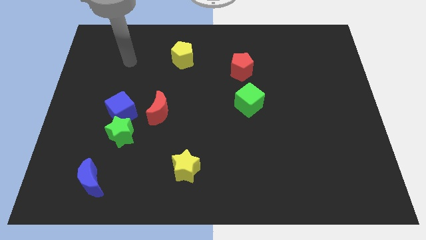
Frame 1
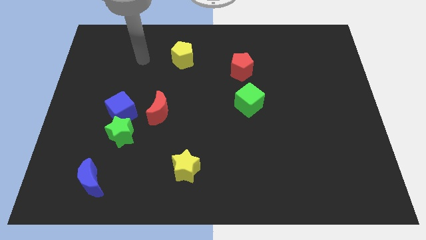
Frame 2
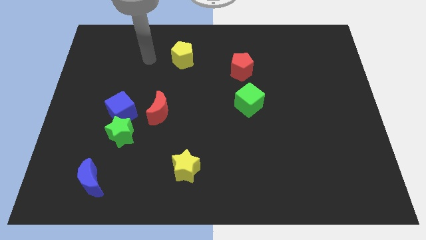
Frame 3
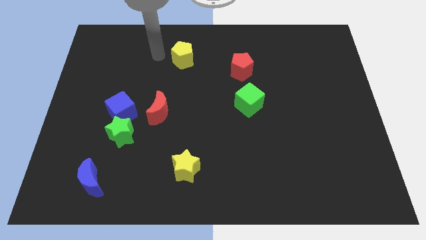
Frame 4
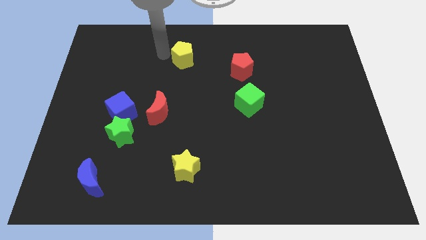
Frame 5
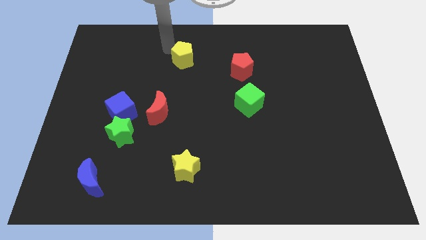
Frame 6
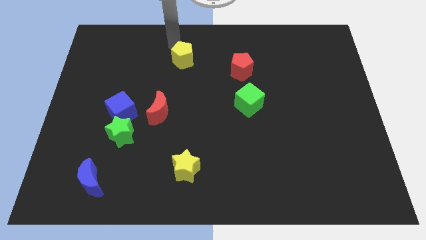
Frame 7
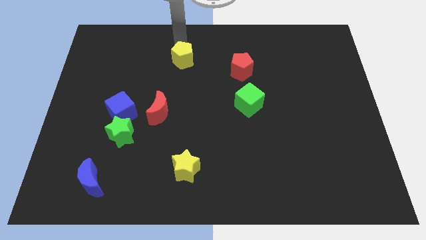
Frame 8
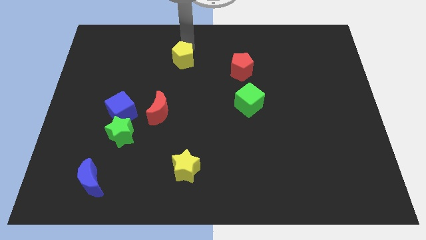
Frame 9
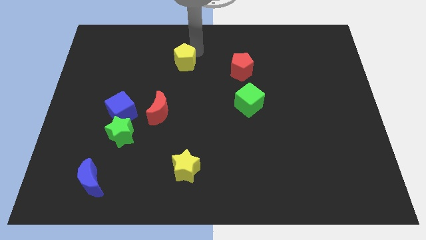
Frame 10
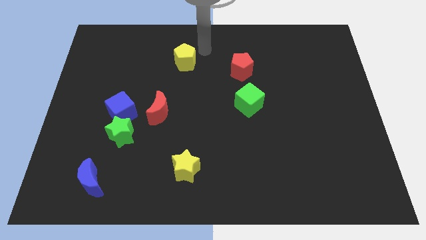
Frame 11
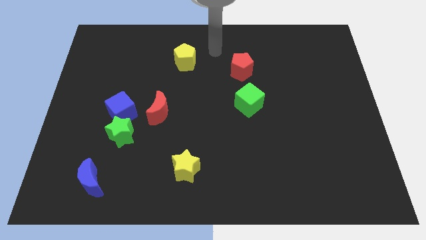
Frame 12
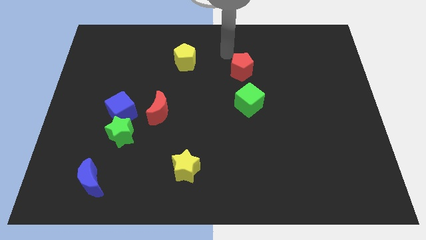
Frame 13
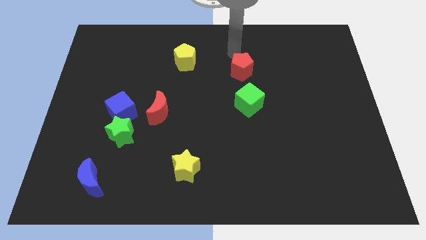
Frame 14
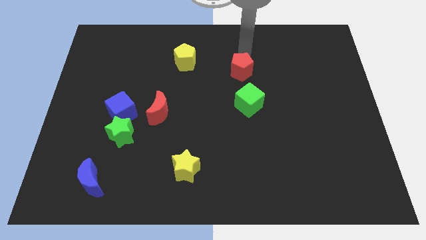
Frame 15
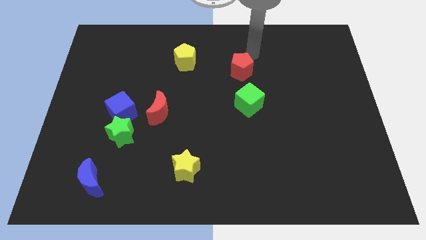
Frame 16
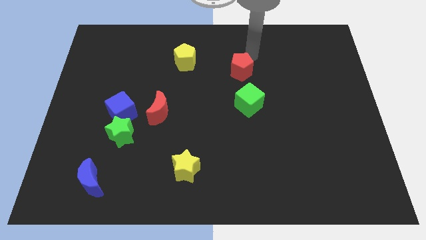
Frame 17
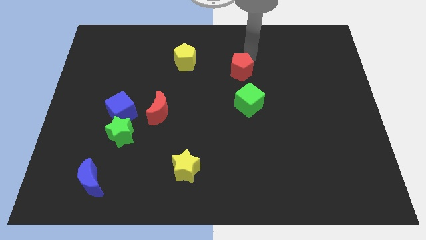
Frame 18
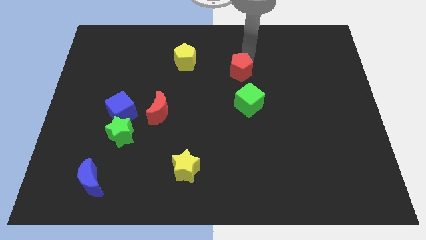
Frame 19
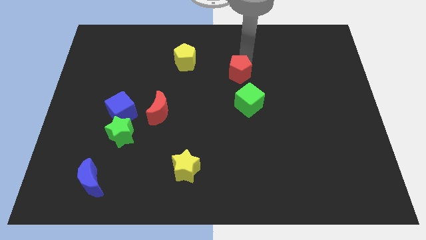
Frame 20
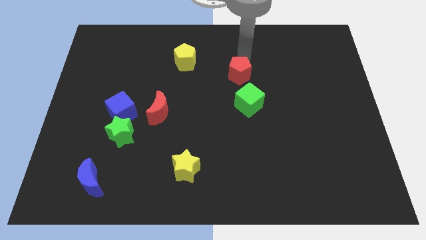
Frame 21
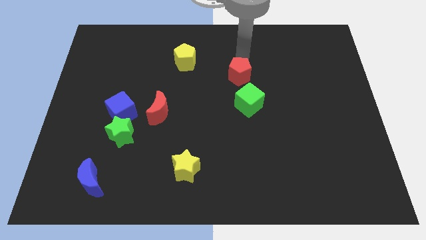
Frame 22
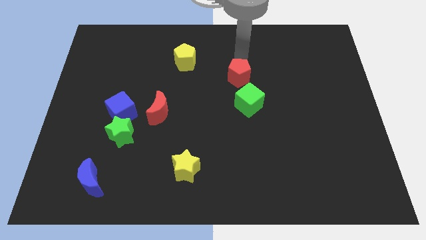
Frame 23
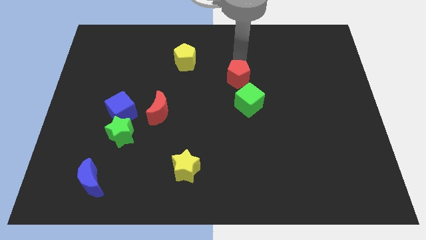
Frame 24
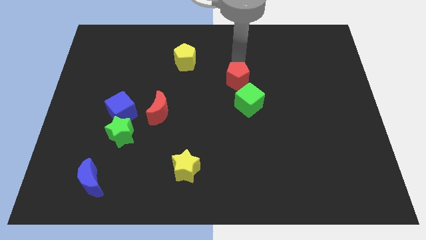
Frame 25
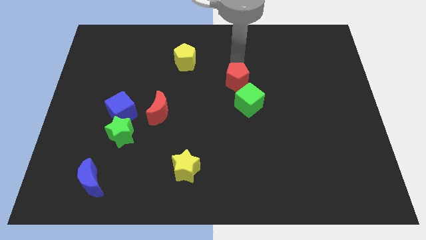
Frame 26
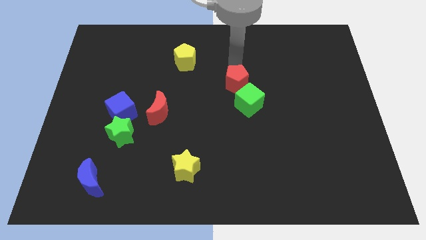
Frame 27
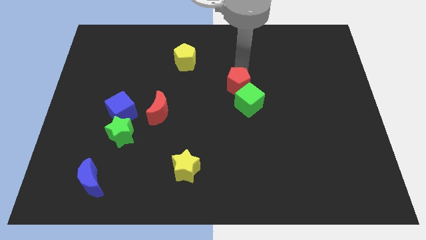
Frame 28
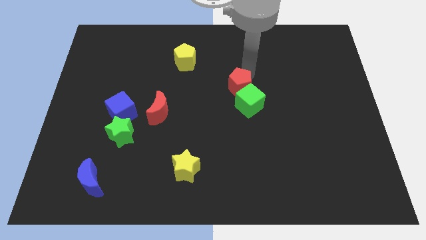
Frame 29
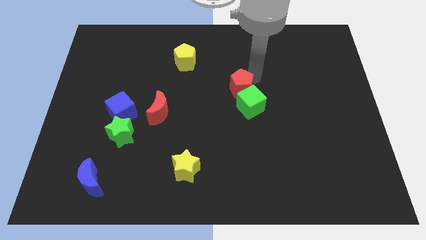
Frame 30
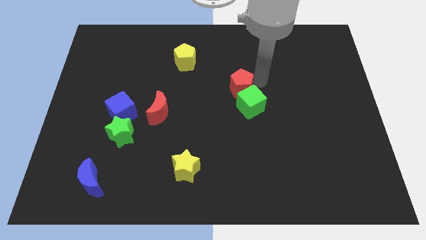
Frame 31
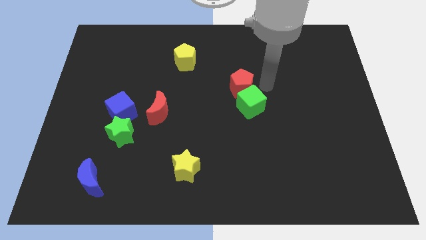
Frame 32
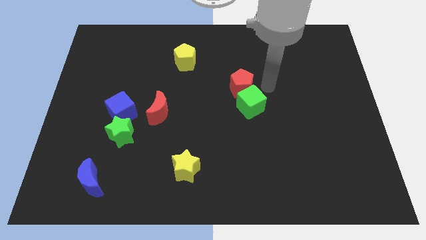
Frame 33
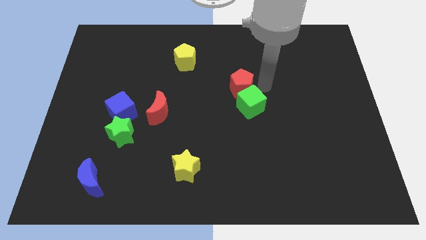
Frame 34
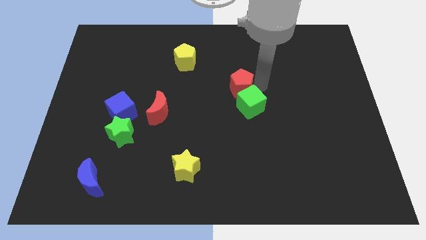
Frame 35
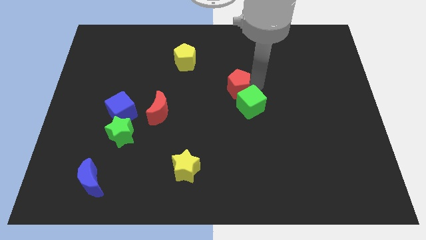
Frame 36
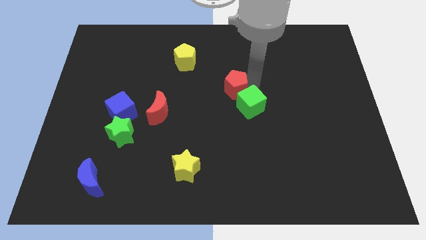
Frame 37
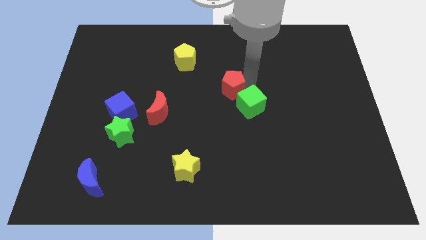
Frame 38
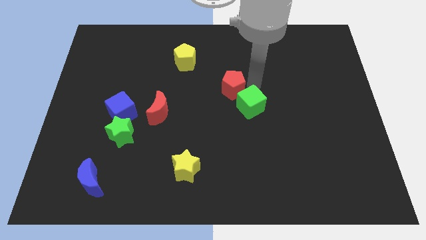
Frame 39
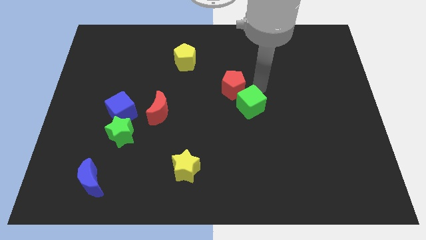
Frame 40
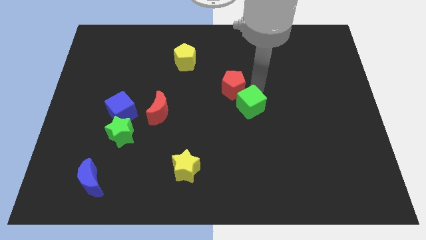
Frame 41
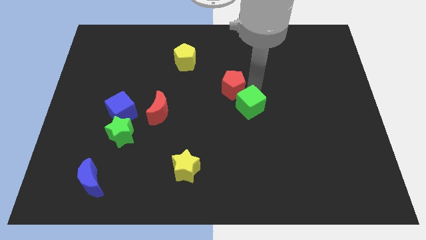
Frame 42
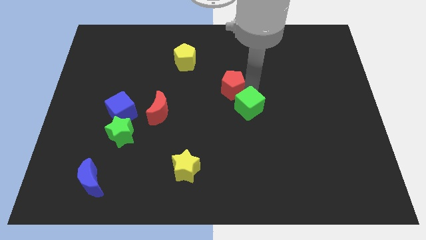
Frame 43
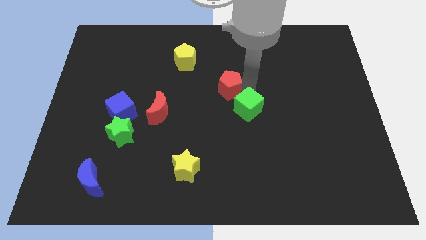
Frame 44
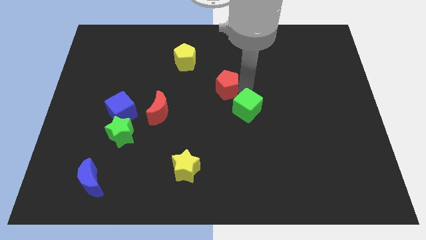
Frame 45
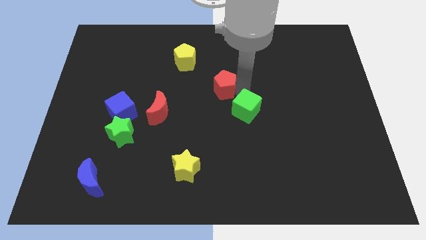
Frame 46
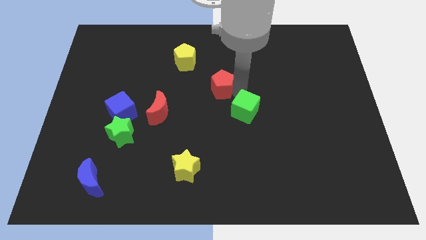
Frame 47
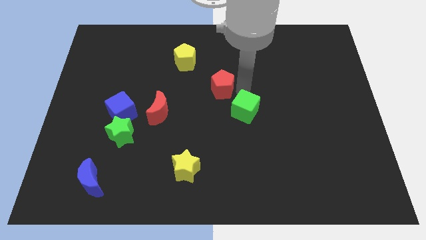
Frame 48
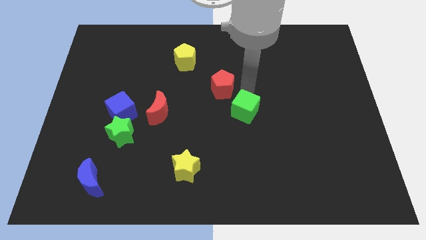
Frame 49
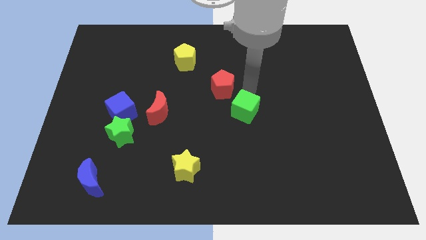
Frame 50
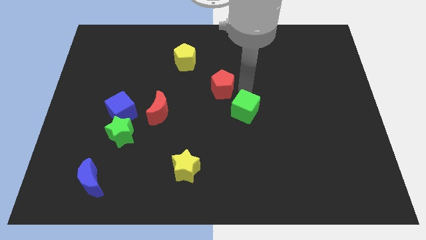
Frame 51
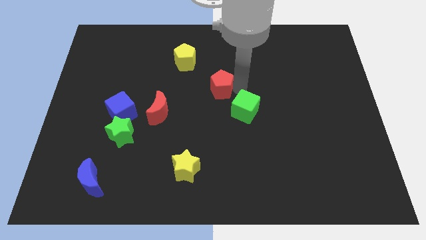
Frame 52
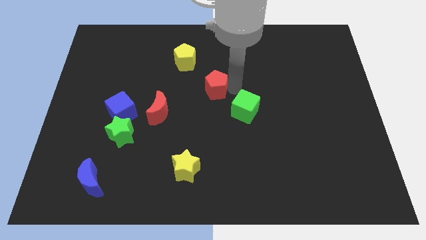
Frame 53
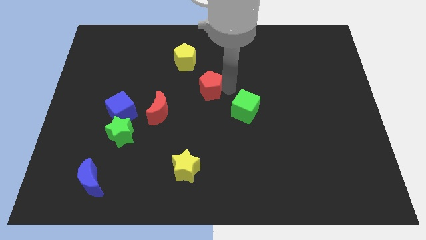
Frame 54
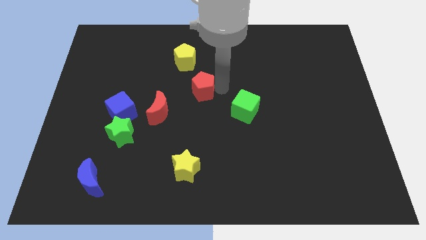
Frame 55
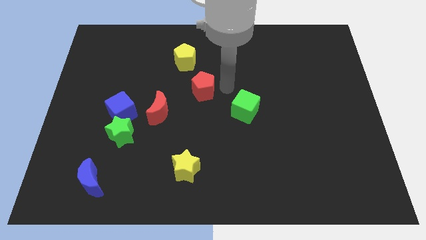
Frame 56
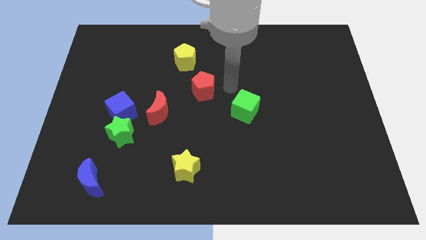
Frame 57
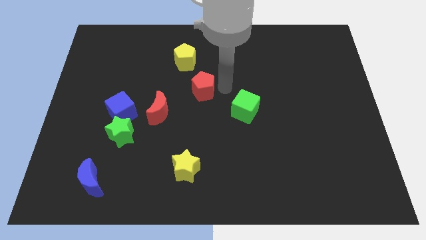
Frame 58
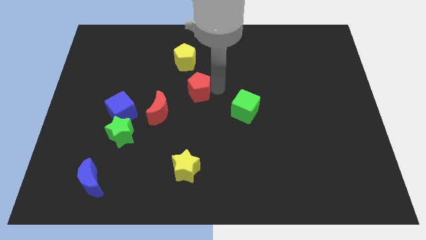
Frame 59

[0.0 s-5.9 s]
slide the red pentagon below the yellow pentagon

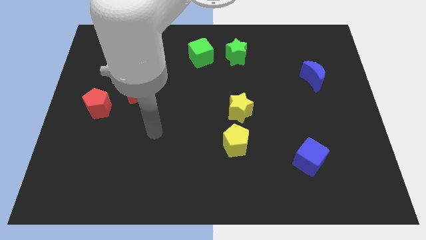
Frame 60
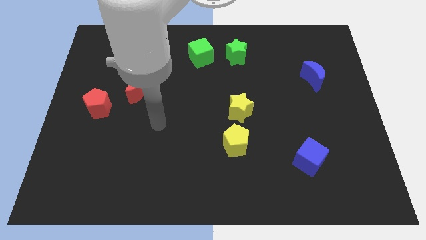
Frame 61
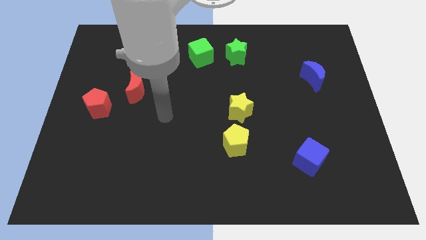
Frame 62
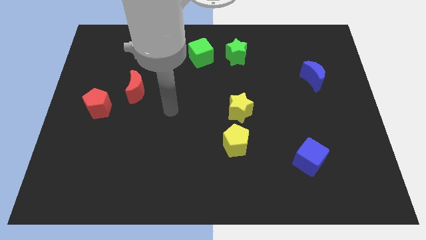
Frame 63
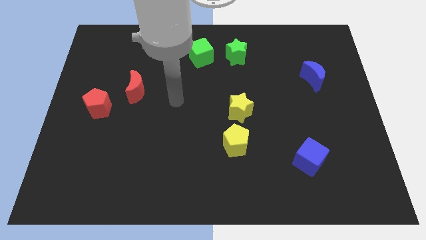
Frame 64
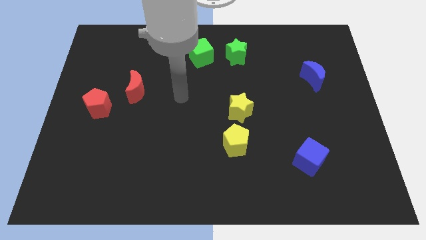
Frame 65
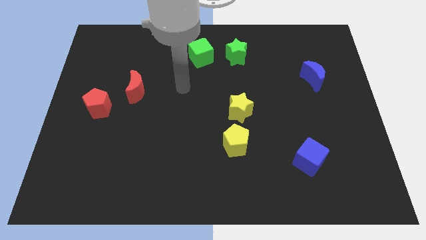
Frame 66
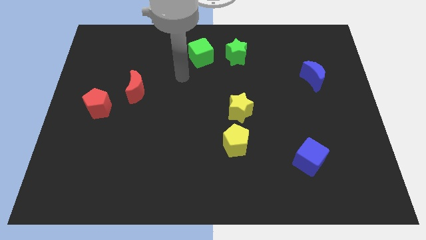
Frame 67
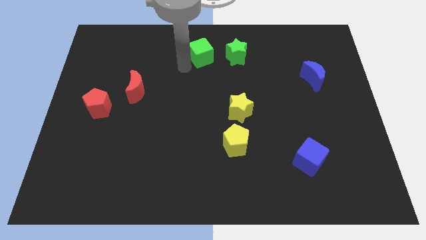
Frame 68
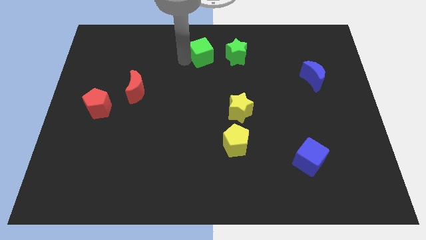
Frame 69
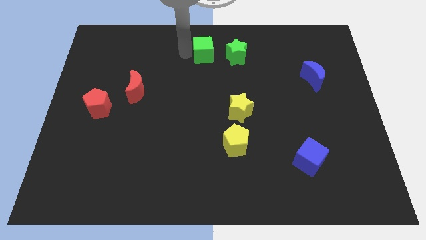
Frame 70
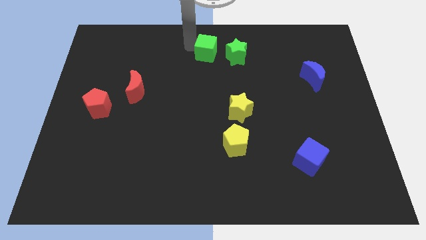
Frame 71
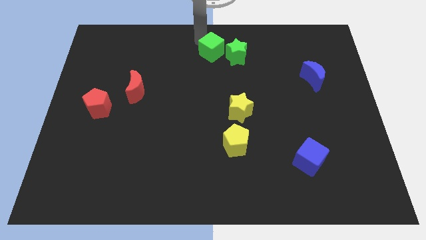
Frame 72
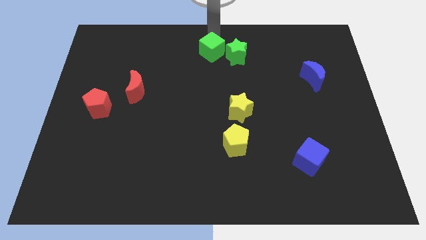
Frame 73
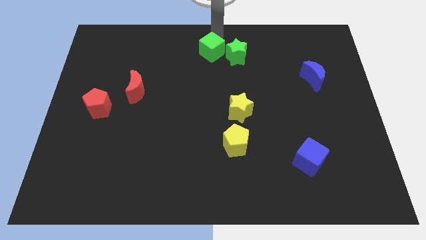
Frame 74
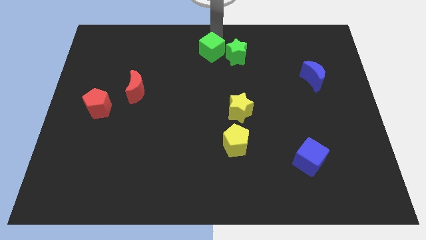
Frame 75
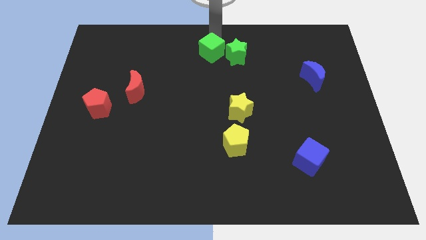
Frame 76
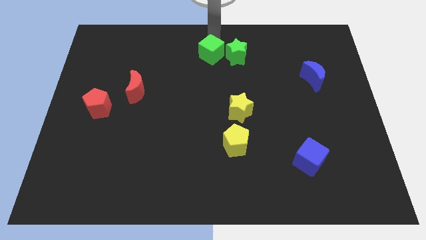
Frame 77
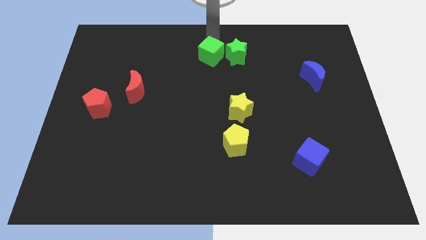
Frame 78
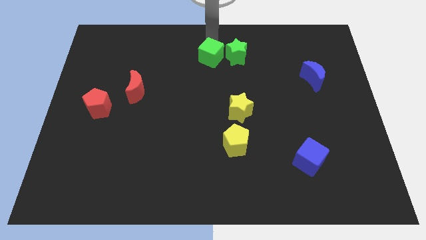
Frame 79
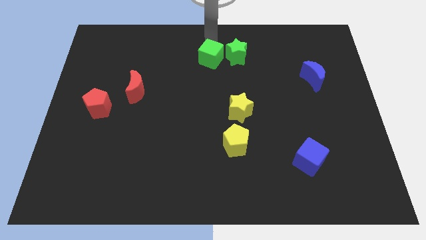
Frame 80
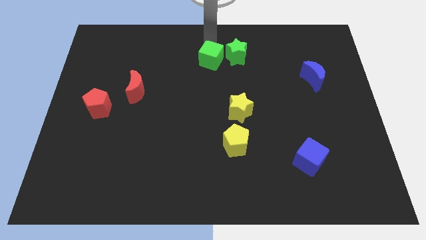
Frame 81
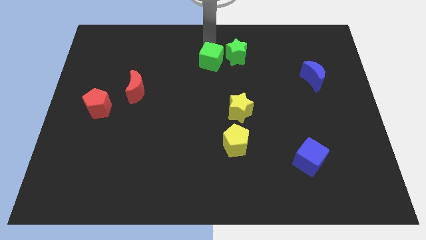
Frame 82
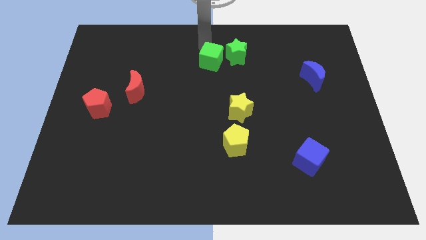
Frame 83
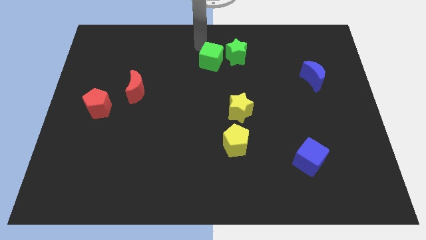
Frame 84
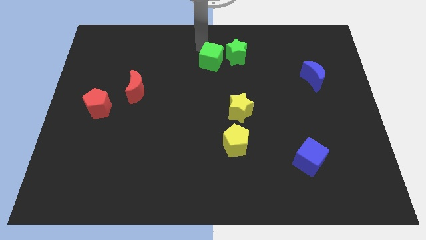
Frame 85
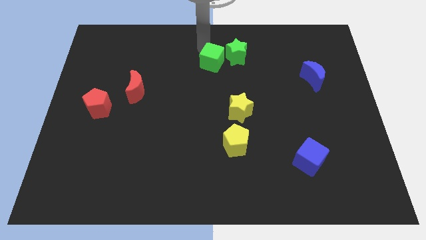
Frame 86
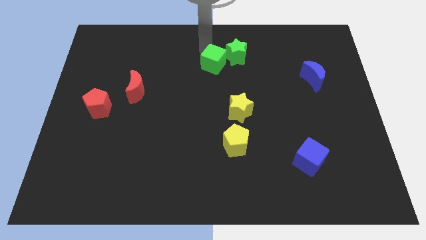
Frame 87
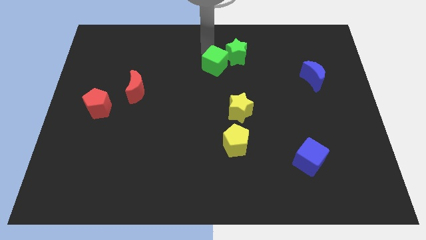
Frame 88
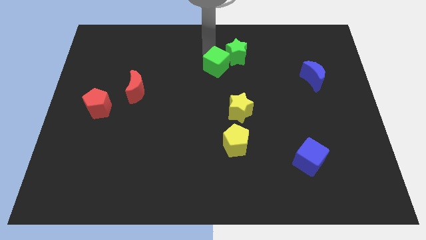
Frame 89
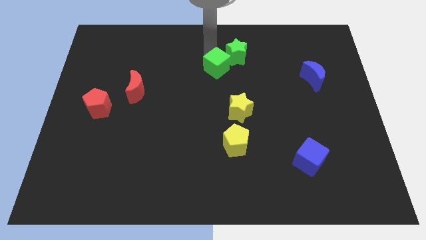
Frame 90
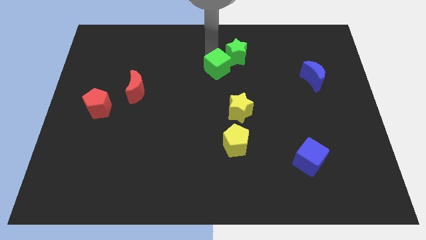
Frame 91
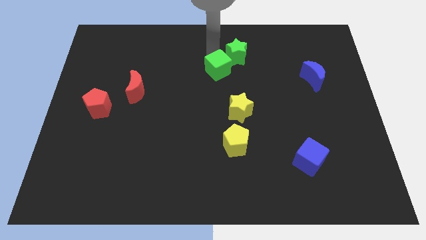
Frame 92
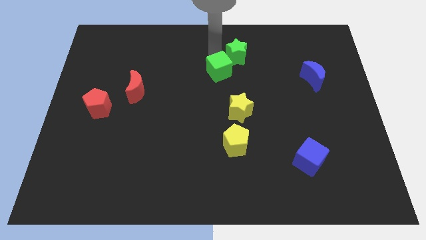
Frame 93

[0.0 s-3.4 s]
slide the green cube below the green star
